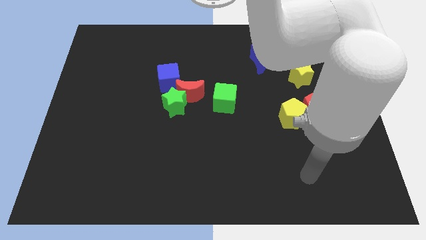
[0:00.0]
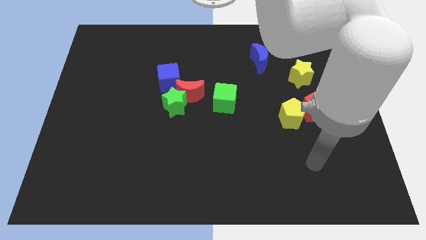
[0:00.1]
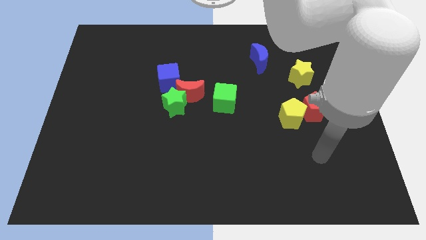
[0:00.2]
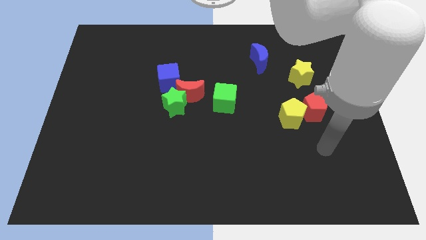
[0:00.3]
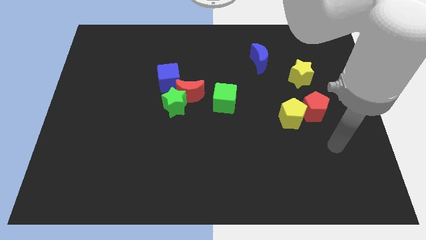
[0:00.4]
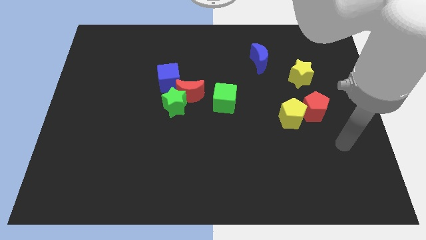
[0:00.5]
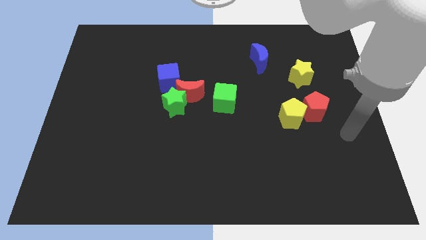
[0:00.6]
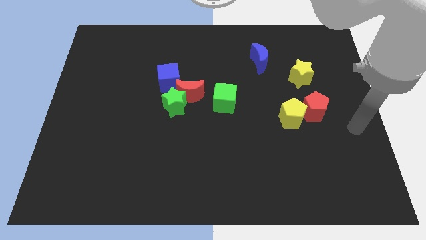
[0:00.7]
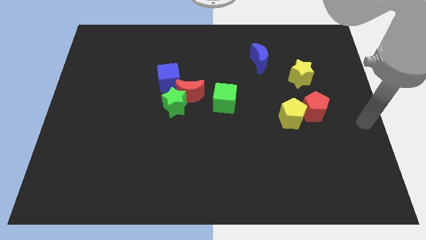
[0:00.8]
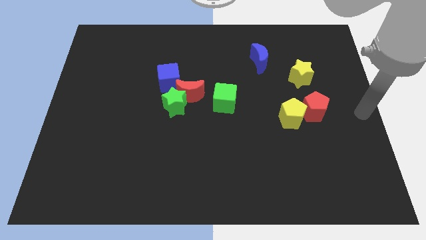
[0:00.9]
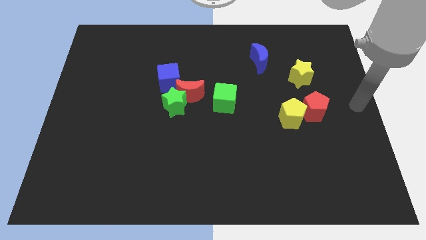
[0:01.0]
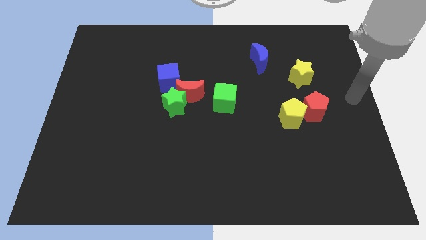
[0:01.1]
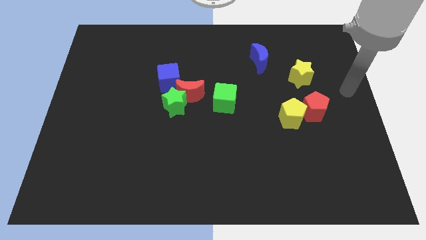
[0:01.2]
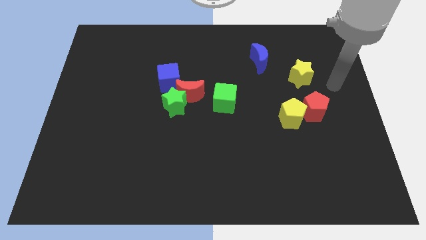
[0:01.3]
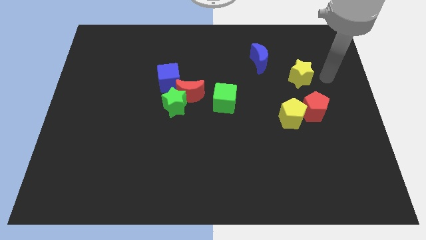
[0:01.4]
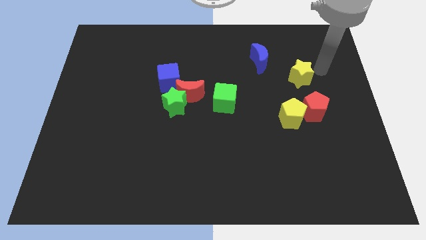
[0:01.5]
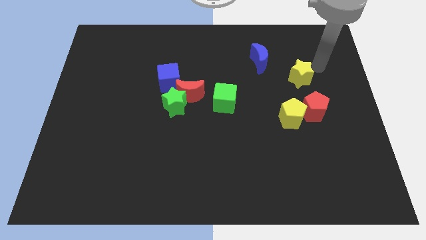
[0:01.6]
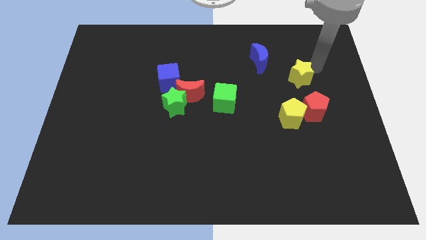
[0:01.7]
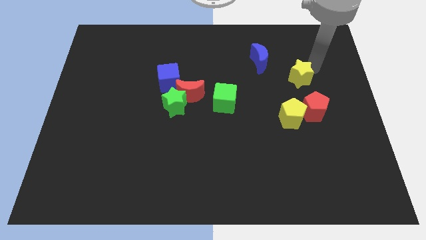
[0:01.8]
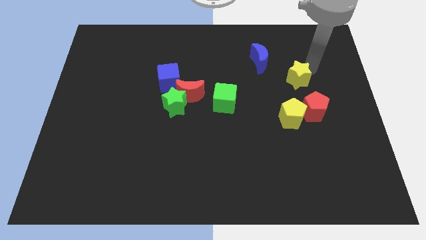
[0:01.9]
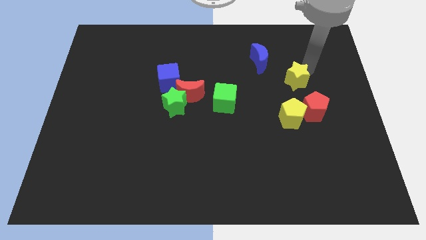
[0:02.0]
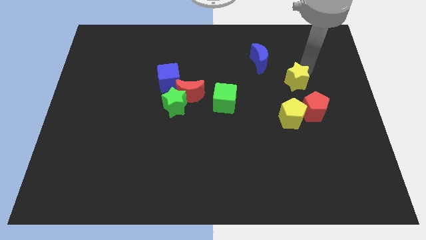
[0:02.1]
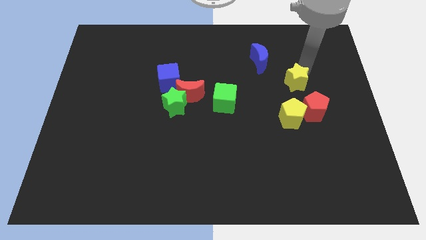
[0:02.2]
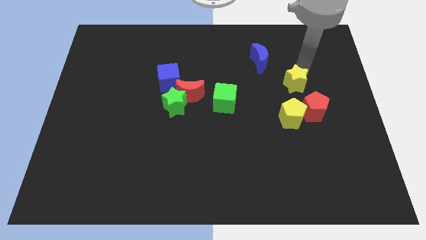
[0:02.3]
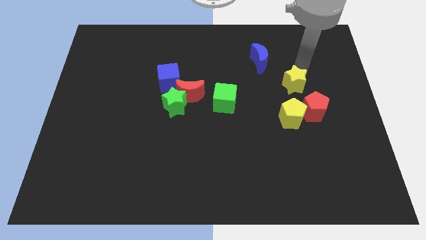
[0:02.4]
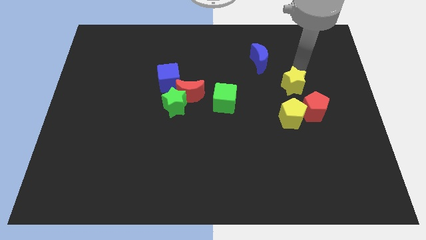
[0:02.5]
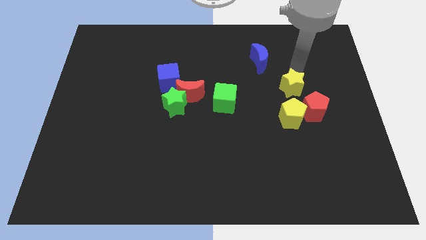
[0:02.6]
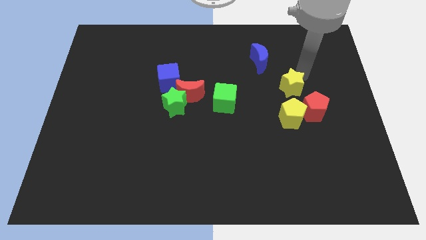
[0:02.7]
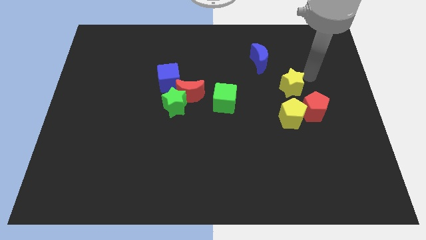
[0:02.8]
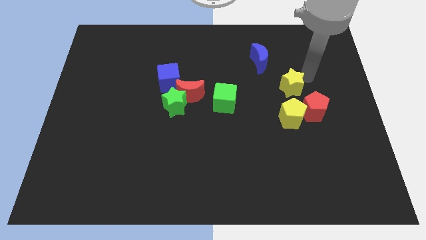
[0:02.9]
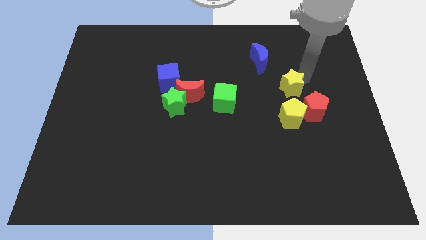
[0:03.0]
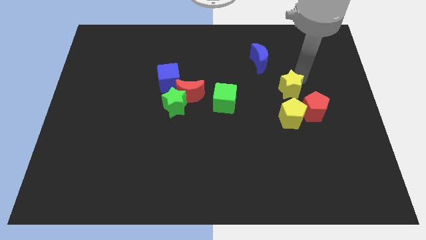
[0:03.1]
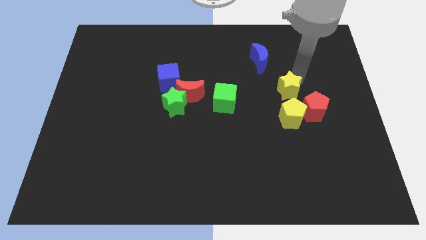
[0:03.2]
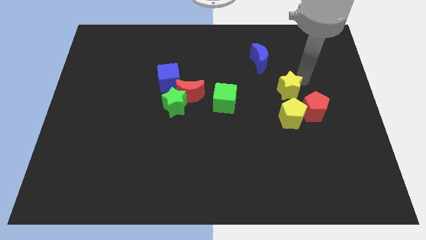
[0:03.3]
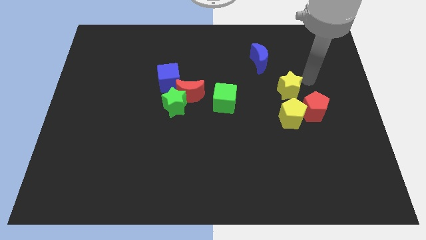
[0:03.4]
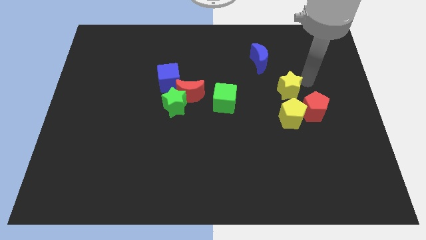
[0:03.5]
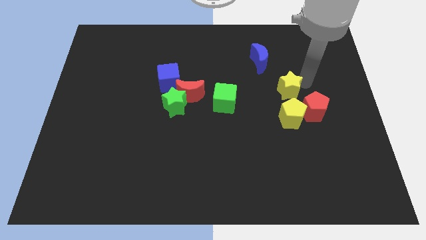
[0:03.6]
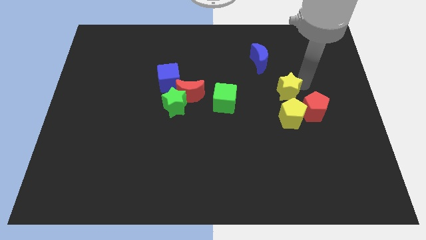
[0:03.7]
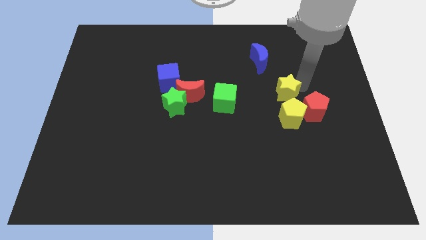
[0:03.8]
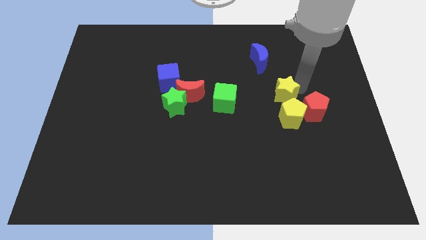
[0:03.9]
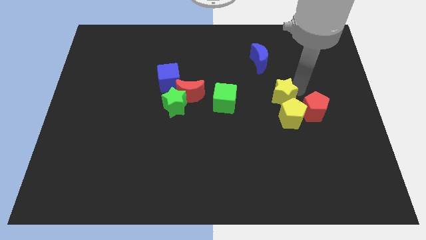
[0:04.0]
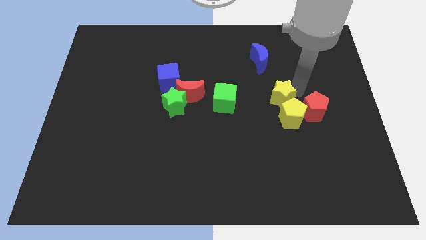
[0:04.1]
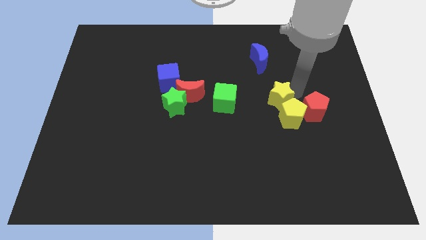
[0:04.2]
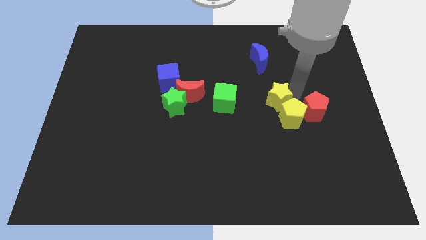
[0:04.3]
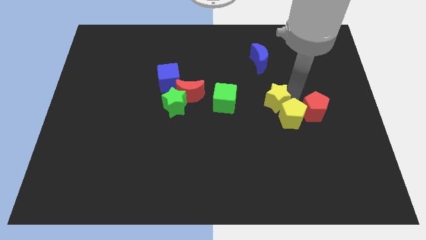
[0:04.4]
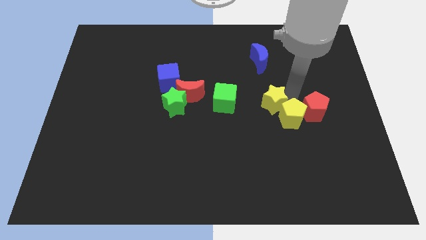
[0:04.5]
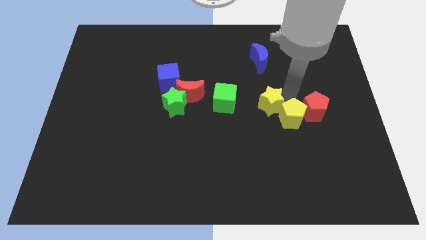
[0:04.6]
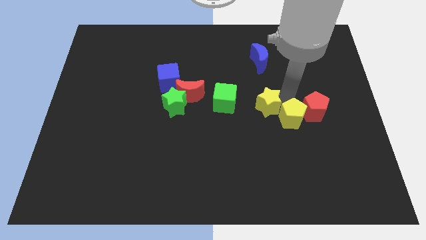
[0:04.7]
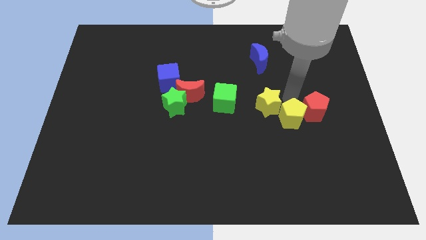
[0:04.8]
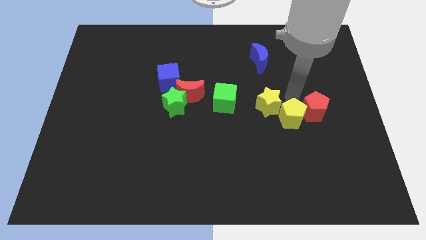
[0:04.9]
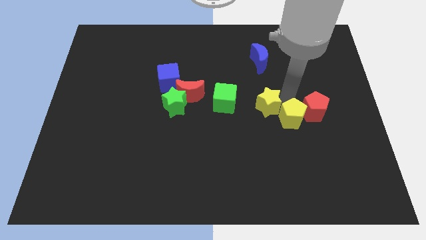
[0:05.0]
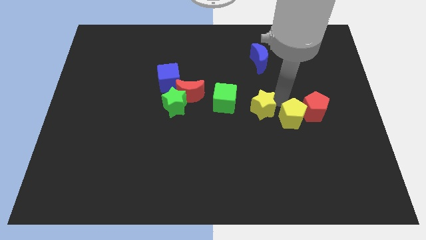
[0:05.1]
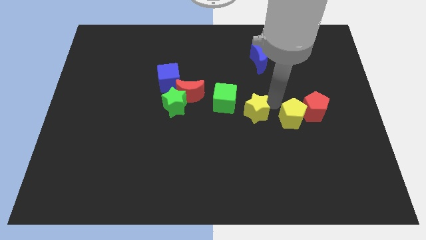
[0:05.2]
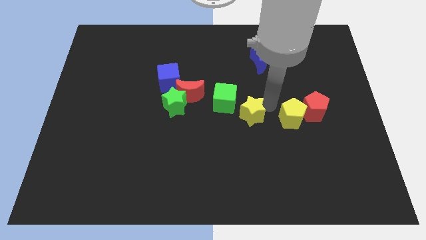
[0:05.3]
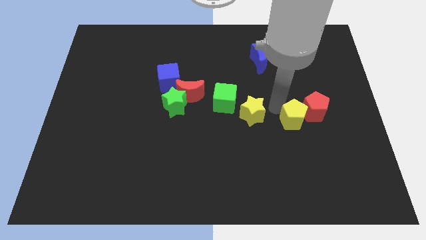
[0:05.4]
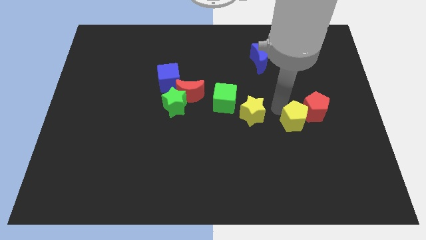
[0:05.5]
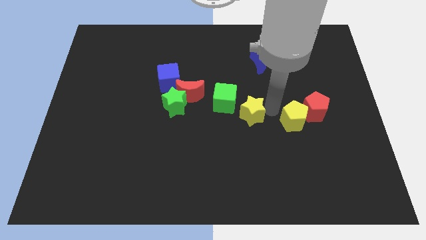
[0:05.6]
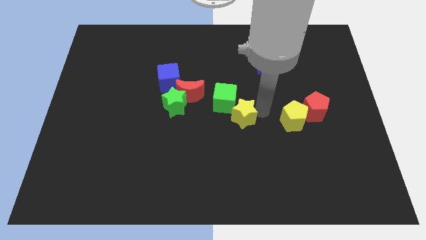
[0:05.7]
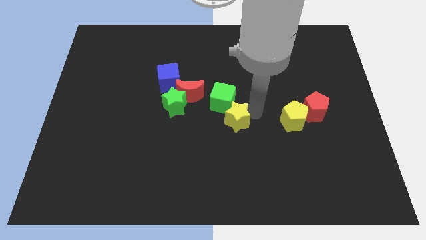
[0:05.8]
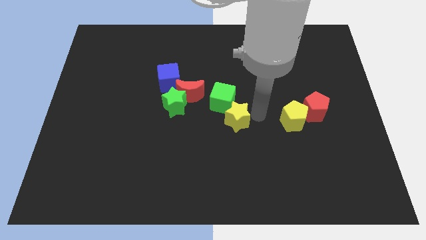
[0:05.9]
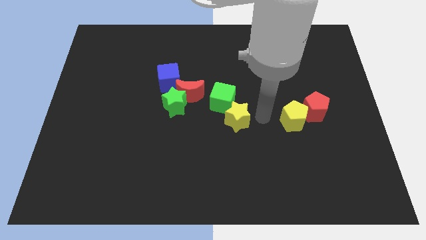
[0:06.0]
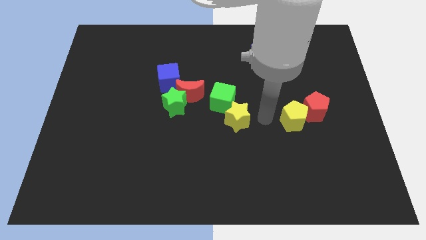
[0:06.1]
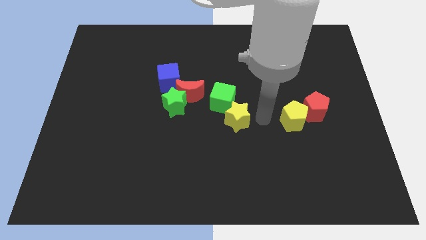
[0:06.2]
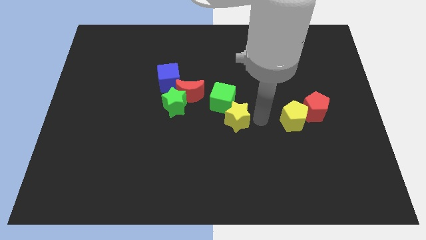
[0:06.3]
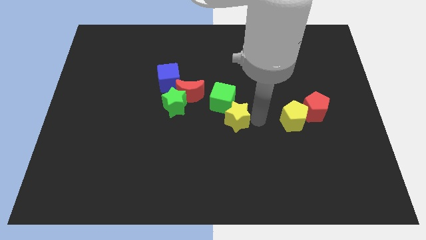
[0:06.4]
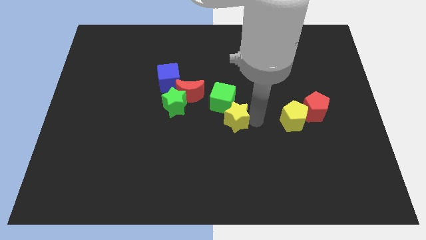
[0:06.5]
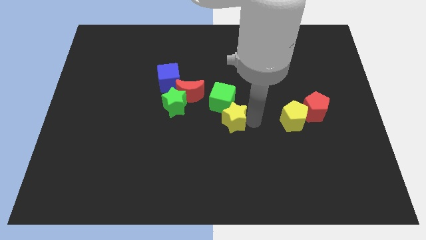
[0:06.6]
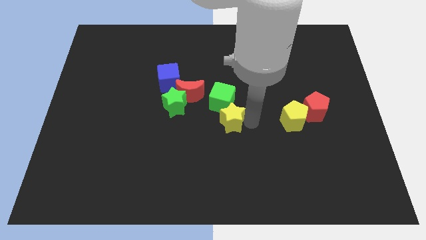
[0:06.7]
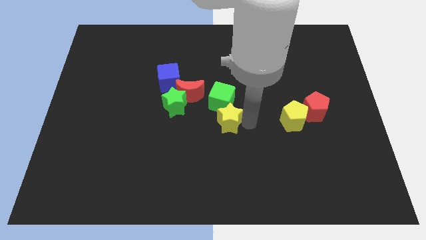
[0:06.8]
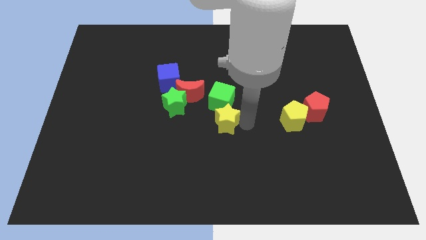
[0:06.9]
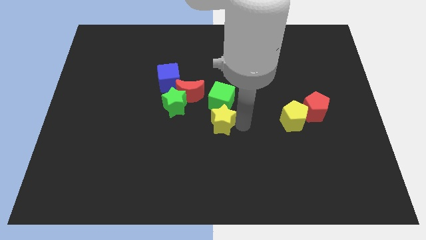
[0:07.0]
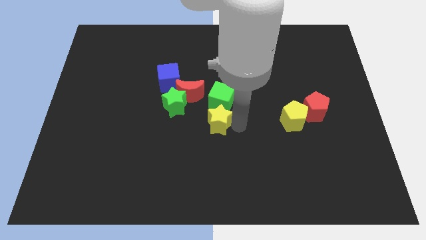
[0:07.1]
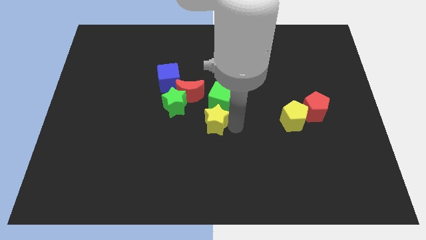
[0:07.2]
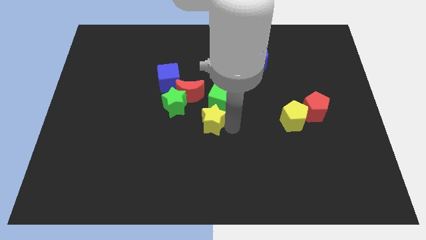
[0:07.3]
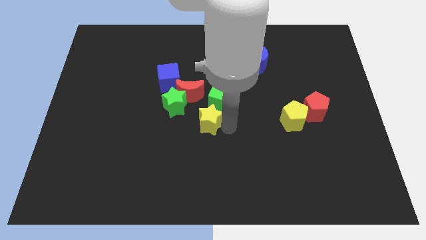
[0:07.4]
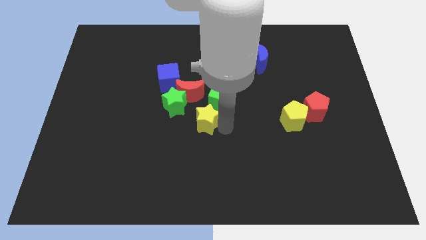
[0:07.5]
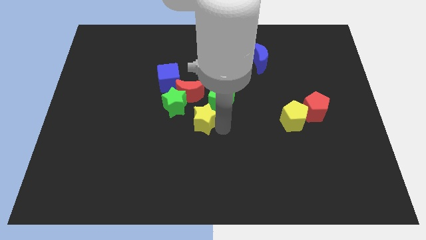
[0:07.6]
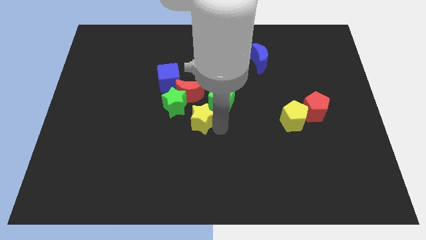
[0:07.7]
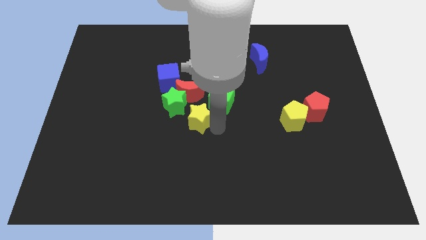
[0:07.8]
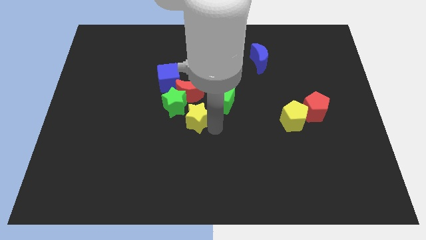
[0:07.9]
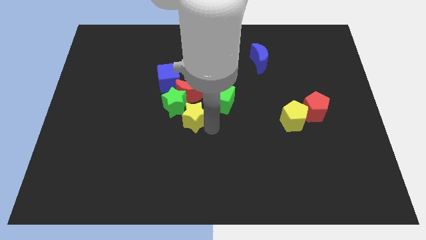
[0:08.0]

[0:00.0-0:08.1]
push the yellow star towards the green star
